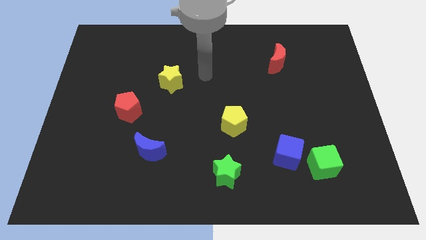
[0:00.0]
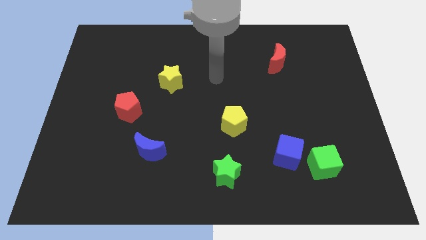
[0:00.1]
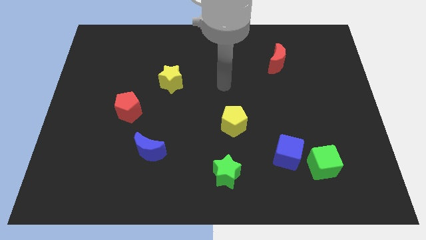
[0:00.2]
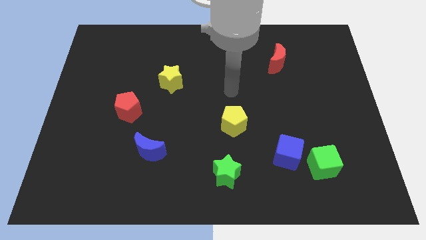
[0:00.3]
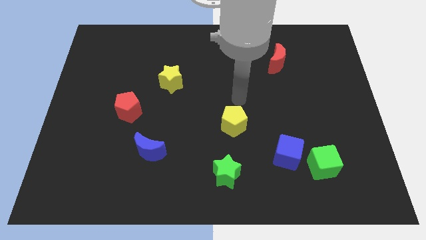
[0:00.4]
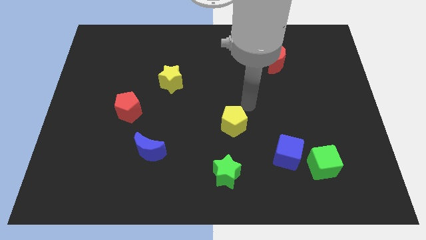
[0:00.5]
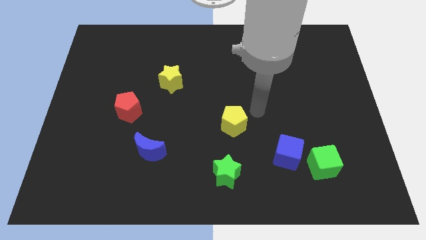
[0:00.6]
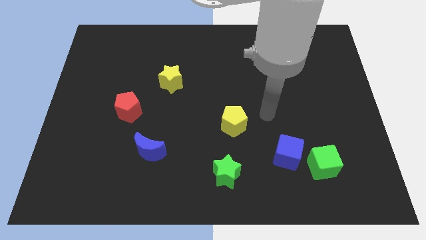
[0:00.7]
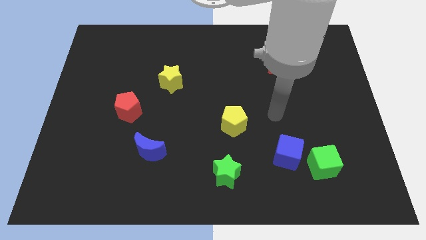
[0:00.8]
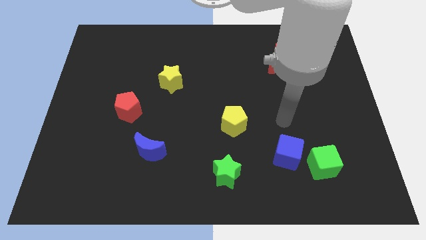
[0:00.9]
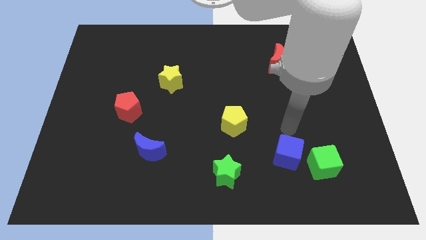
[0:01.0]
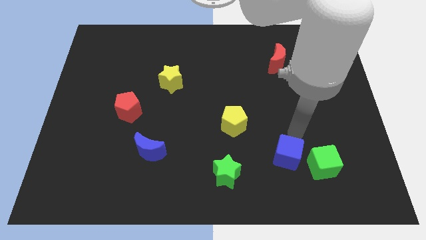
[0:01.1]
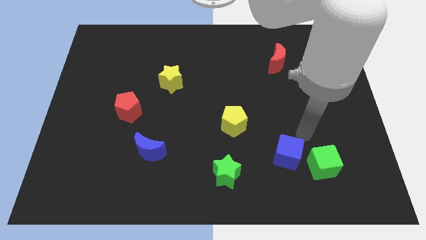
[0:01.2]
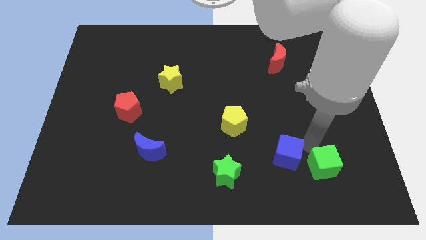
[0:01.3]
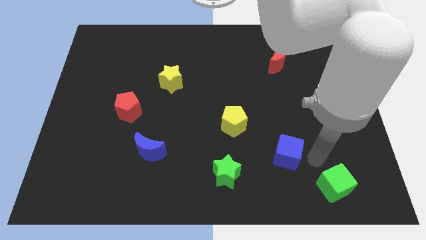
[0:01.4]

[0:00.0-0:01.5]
pull the blue cube apart from the green cube

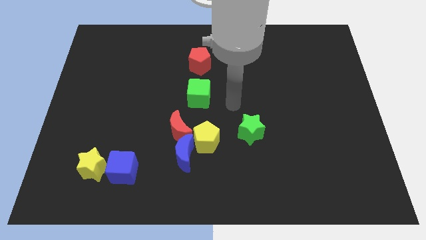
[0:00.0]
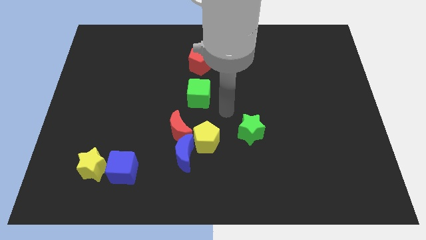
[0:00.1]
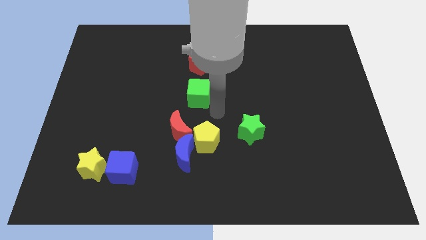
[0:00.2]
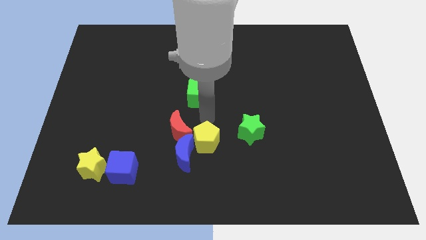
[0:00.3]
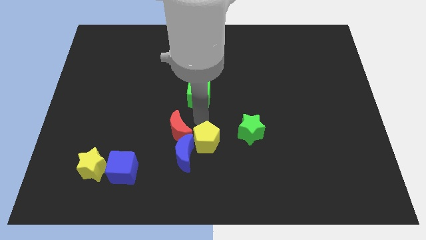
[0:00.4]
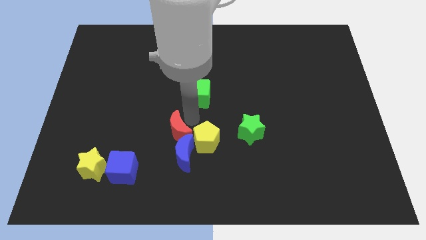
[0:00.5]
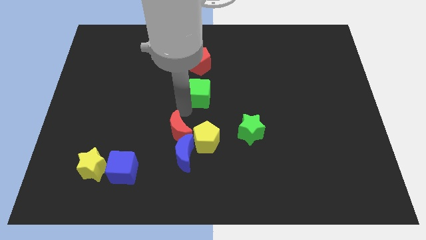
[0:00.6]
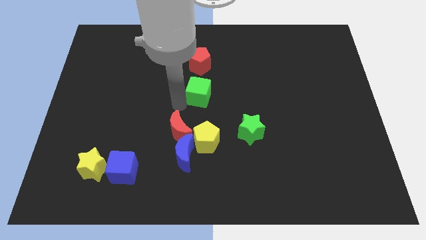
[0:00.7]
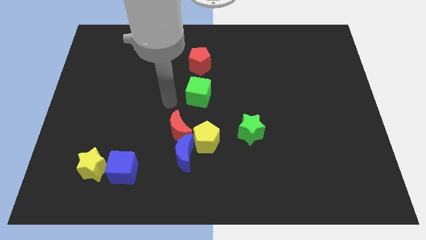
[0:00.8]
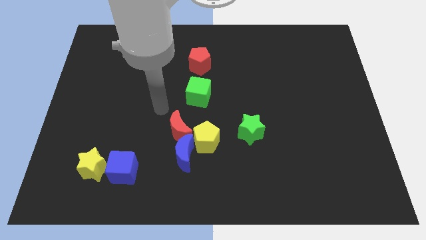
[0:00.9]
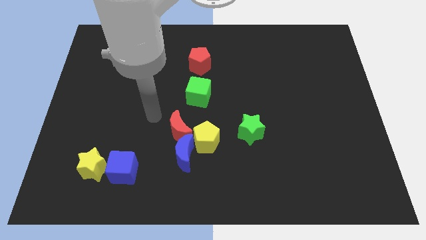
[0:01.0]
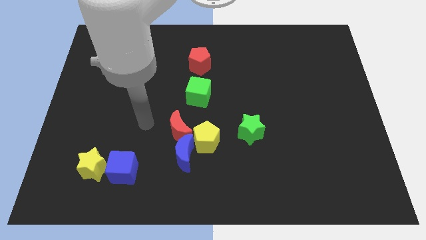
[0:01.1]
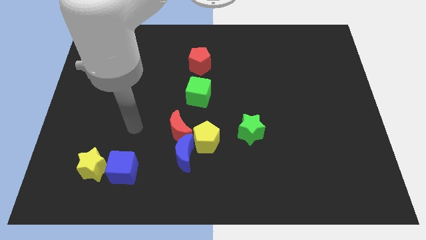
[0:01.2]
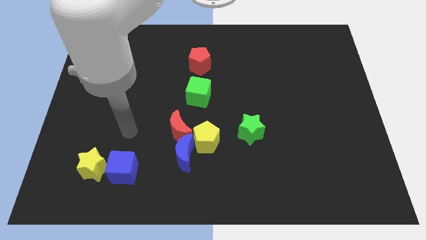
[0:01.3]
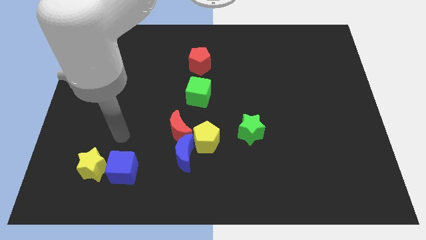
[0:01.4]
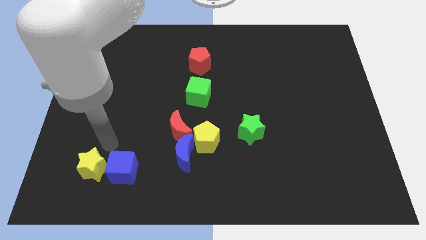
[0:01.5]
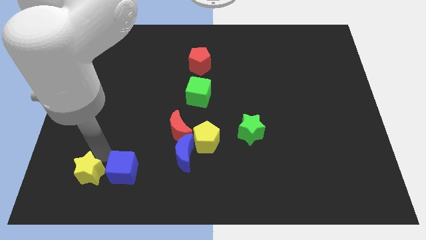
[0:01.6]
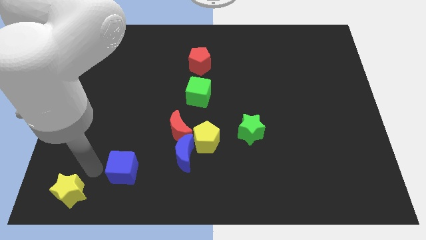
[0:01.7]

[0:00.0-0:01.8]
move the blue cube away from the yellow star

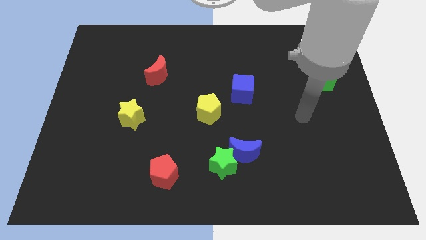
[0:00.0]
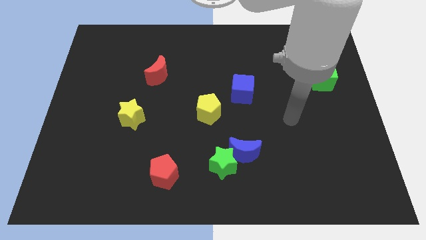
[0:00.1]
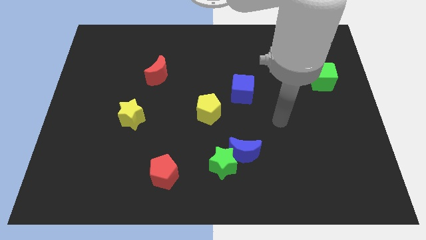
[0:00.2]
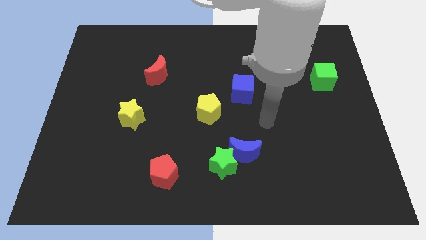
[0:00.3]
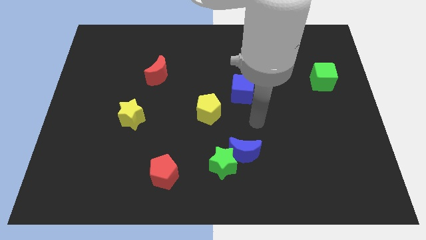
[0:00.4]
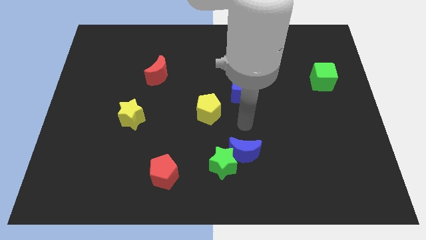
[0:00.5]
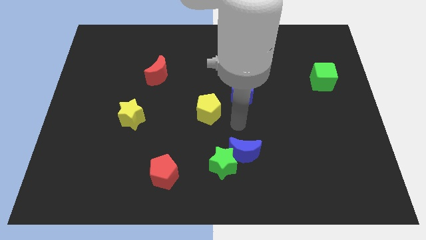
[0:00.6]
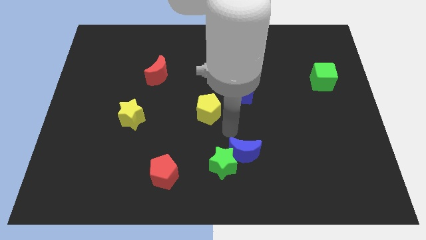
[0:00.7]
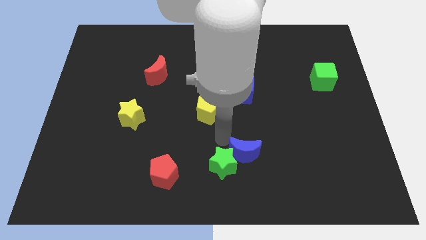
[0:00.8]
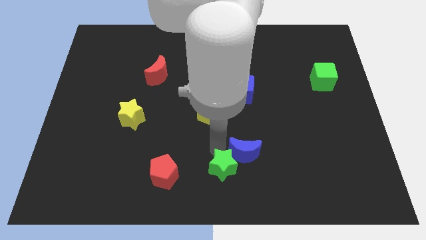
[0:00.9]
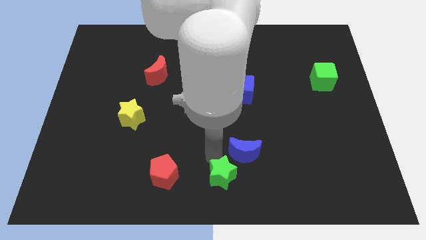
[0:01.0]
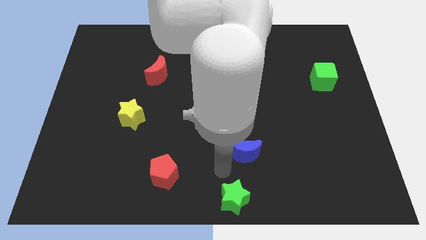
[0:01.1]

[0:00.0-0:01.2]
pull the blue moon apart from the green star

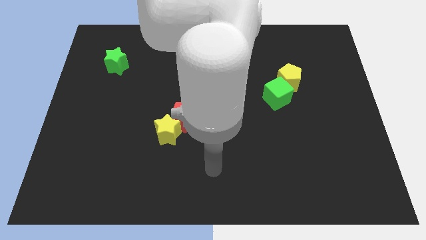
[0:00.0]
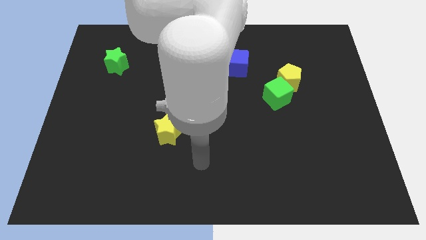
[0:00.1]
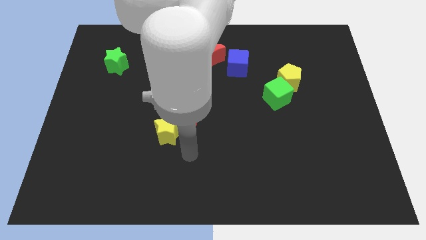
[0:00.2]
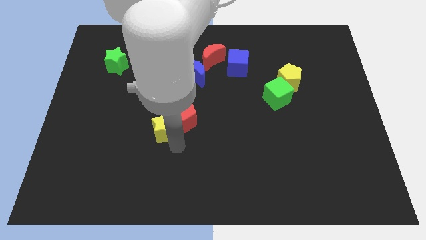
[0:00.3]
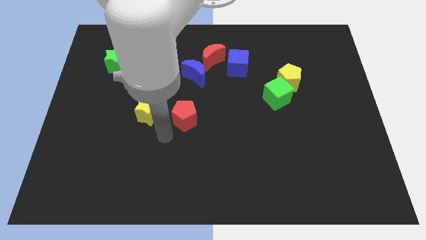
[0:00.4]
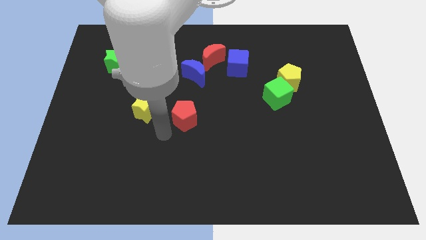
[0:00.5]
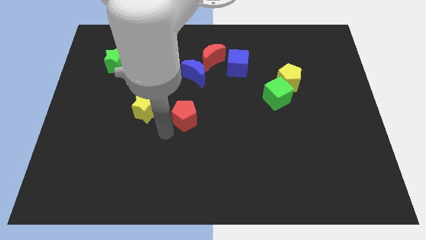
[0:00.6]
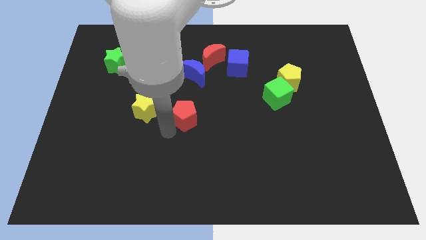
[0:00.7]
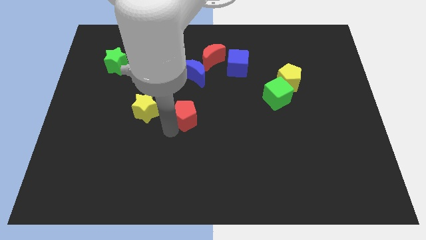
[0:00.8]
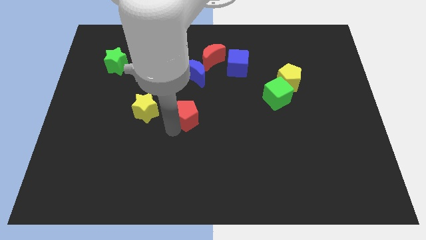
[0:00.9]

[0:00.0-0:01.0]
separate the red pentagon from the yellow star

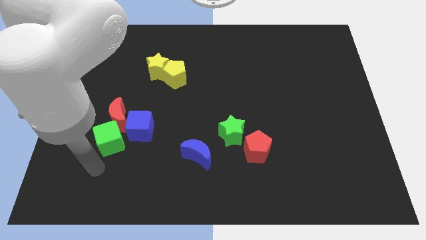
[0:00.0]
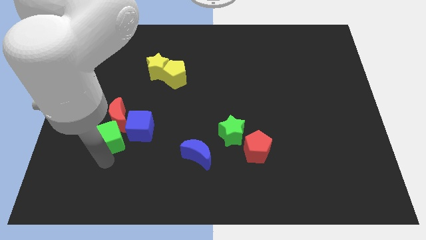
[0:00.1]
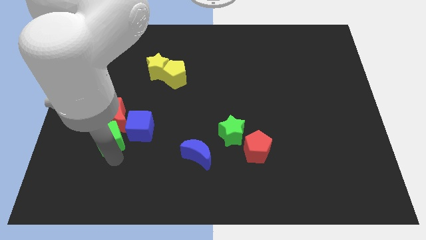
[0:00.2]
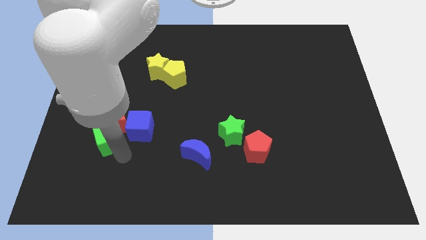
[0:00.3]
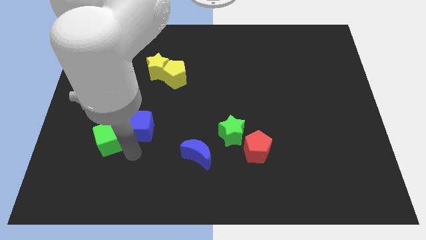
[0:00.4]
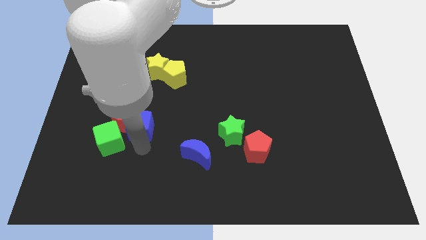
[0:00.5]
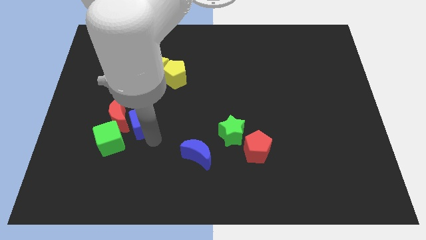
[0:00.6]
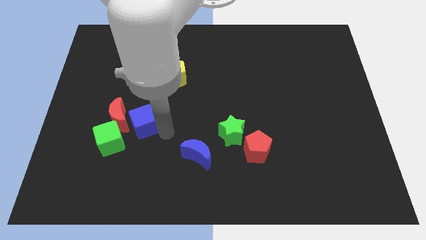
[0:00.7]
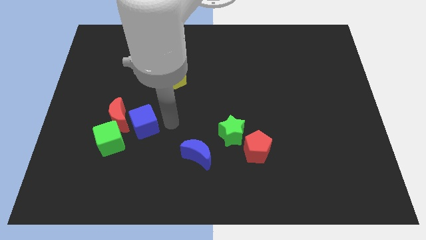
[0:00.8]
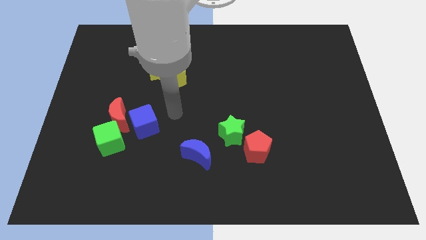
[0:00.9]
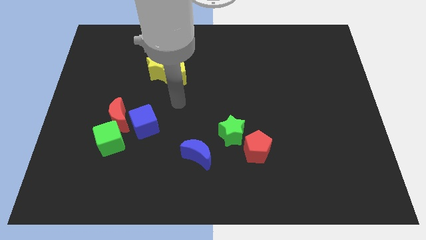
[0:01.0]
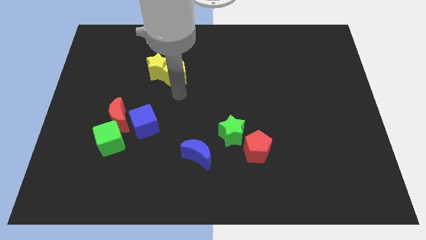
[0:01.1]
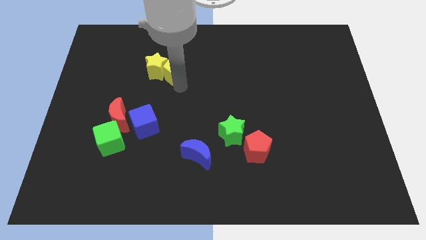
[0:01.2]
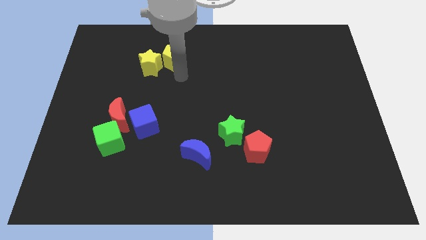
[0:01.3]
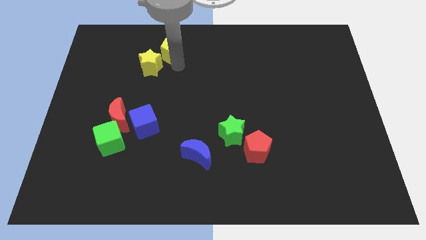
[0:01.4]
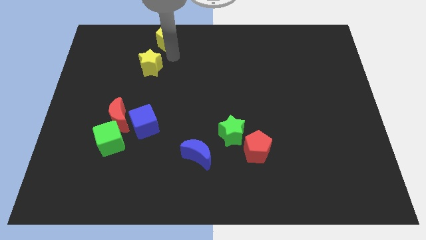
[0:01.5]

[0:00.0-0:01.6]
separate the yellow star from the yellow pentagon

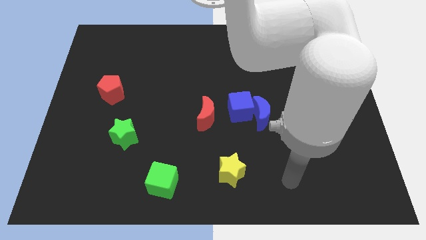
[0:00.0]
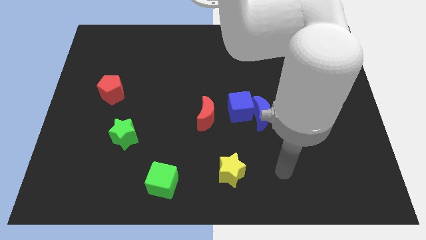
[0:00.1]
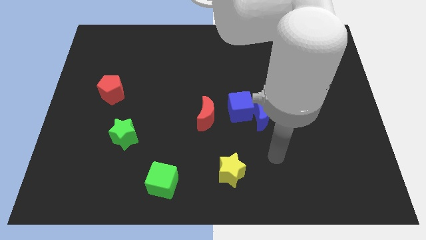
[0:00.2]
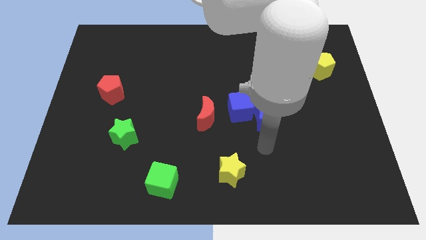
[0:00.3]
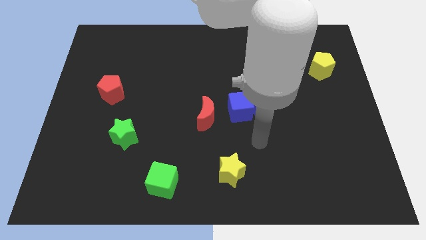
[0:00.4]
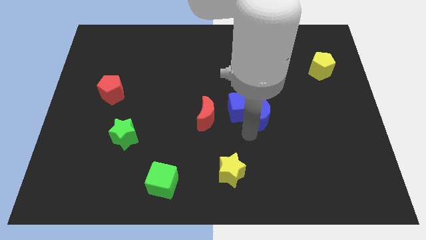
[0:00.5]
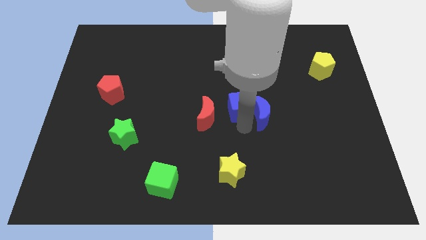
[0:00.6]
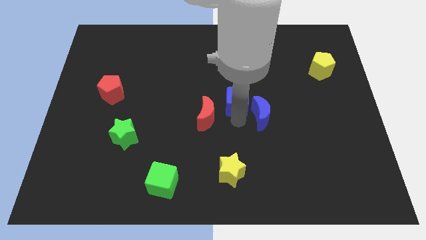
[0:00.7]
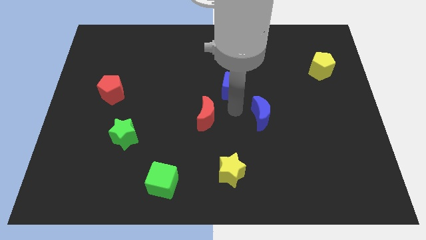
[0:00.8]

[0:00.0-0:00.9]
pull the blue moon apart from the blue cube

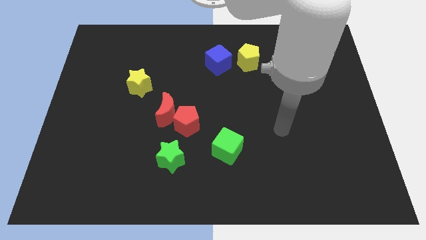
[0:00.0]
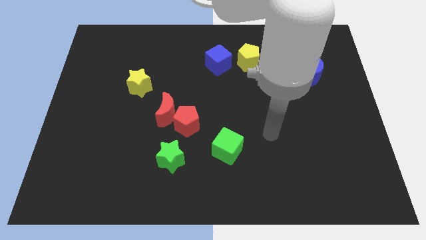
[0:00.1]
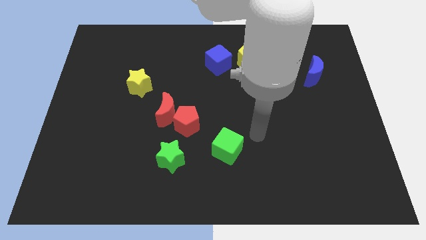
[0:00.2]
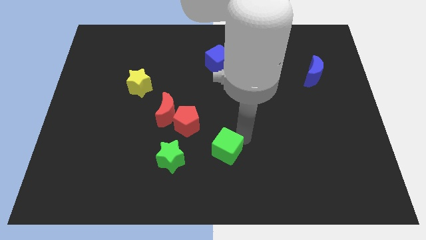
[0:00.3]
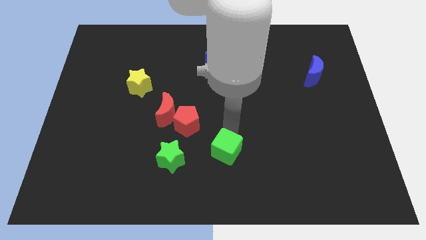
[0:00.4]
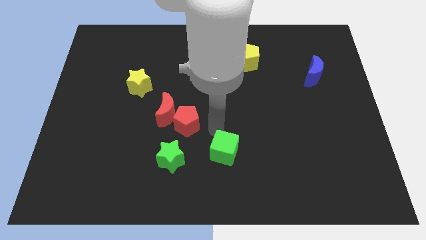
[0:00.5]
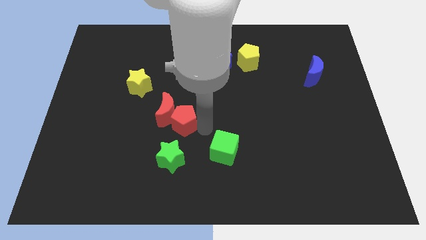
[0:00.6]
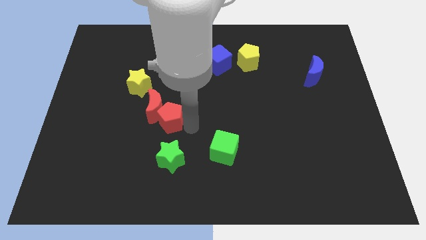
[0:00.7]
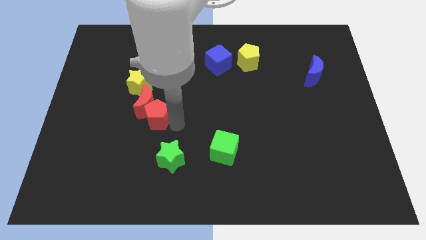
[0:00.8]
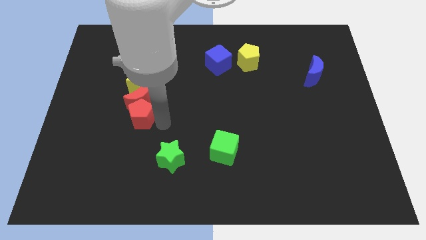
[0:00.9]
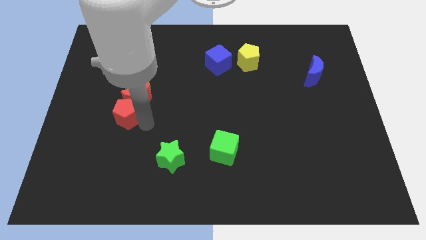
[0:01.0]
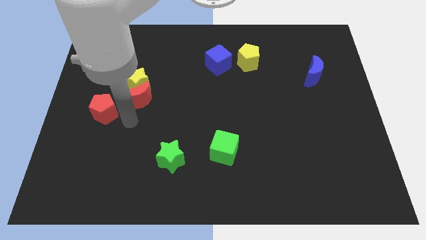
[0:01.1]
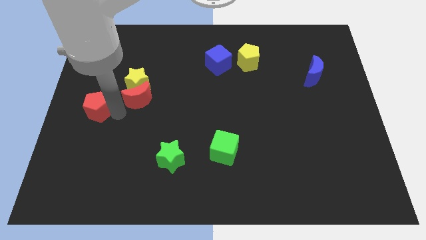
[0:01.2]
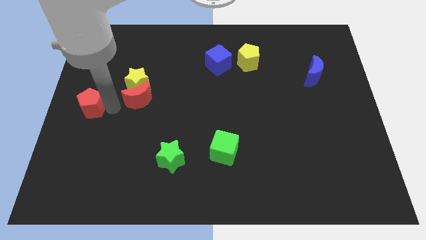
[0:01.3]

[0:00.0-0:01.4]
separate the red moon from the red pentagon
